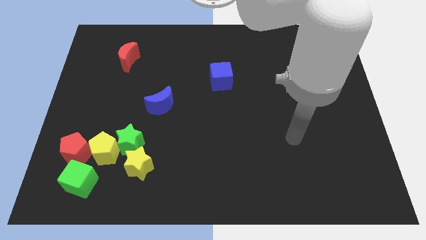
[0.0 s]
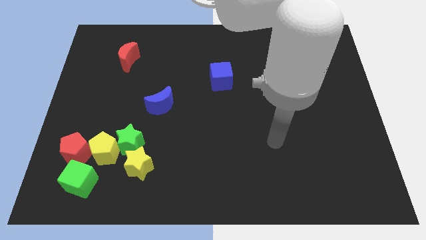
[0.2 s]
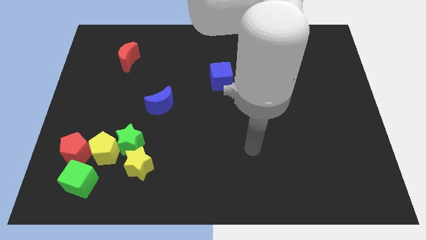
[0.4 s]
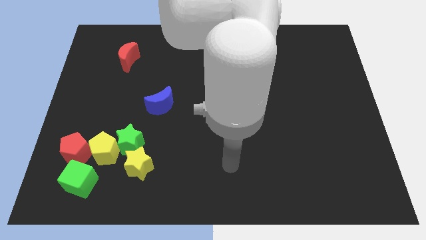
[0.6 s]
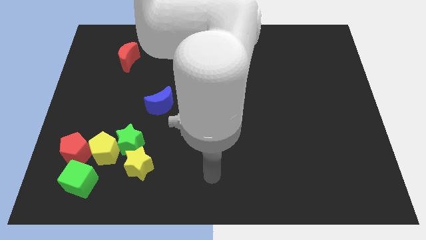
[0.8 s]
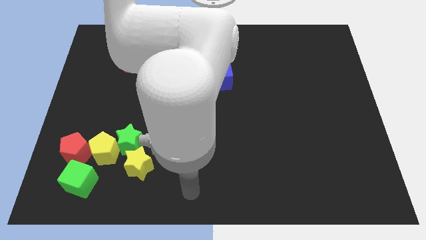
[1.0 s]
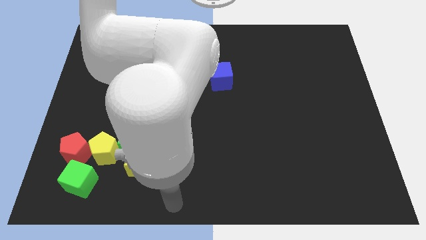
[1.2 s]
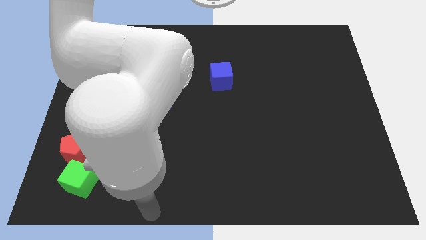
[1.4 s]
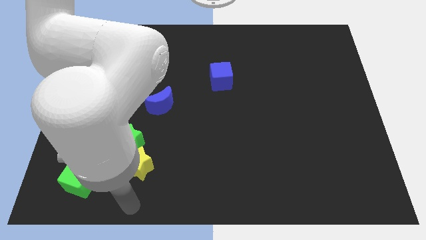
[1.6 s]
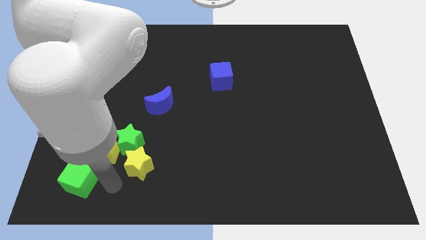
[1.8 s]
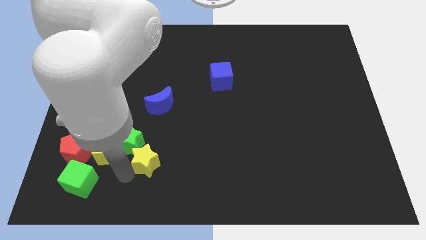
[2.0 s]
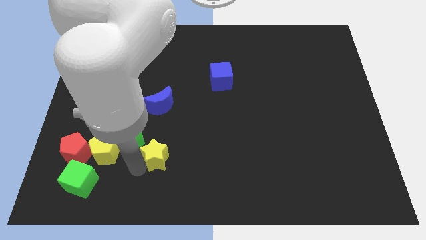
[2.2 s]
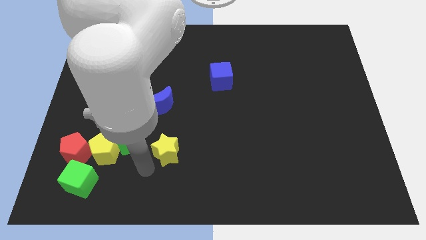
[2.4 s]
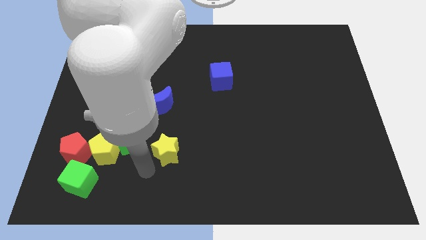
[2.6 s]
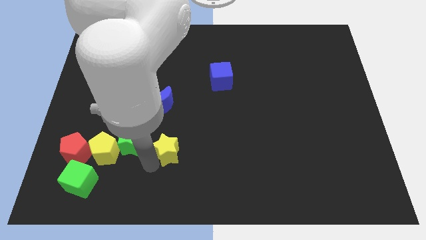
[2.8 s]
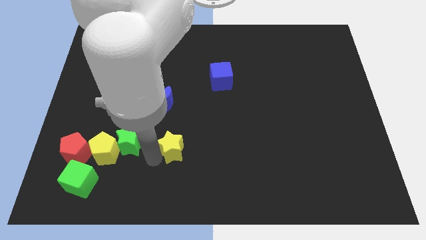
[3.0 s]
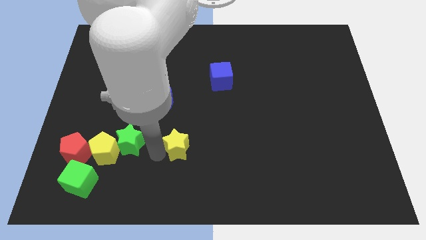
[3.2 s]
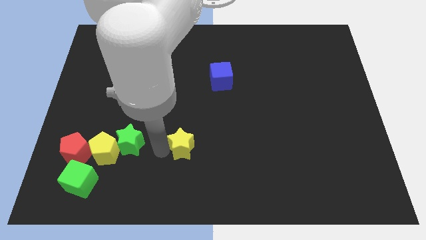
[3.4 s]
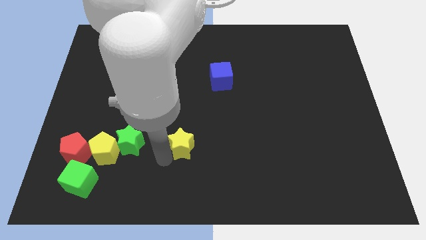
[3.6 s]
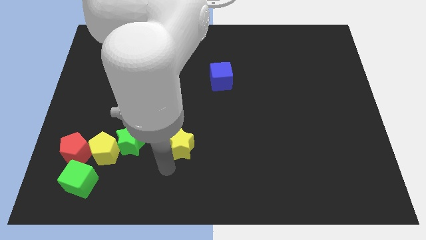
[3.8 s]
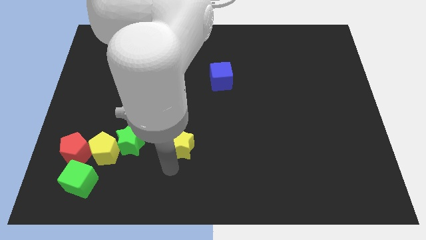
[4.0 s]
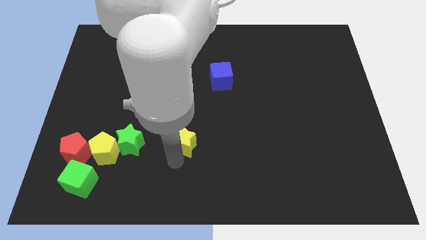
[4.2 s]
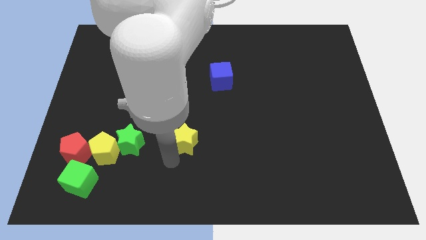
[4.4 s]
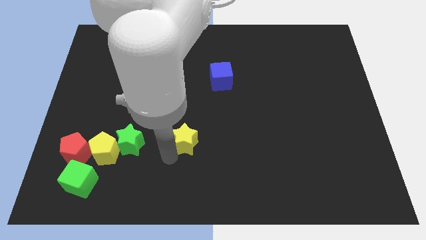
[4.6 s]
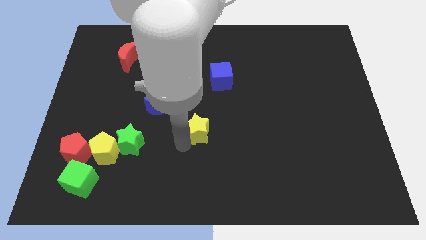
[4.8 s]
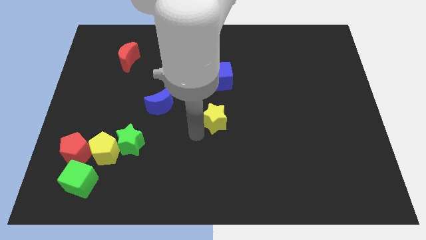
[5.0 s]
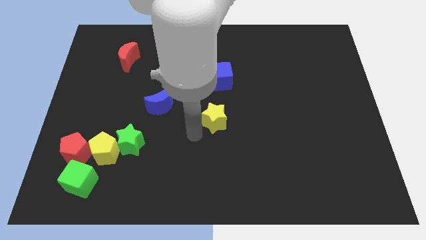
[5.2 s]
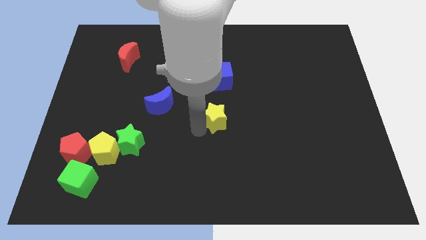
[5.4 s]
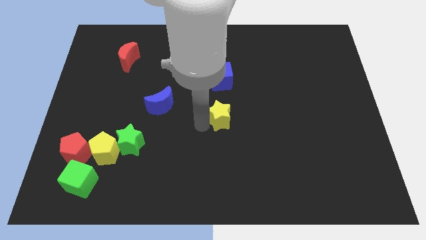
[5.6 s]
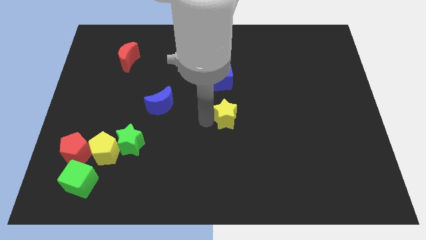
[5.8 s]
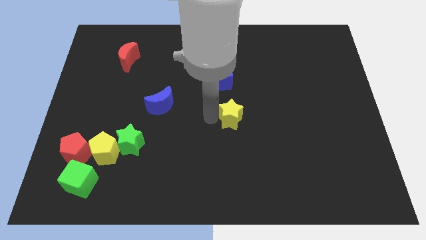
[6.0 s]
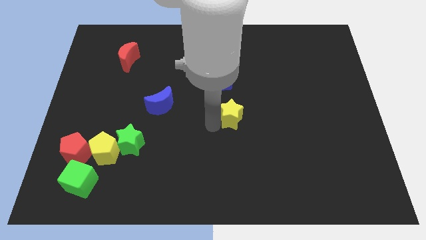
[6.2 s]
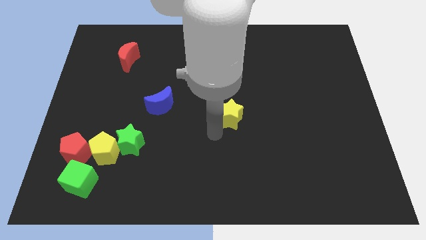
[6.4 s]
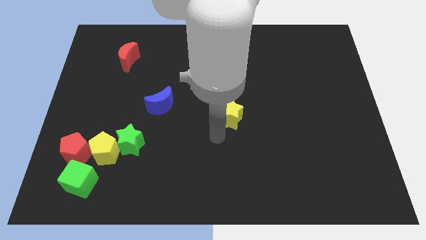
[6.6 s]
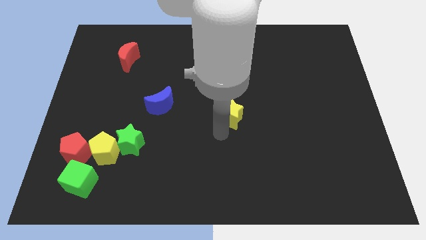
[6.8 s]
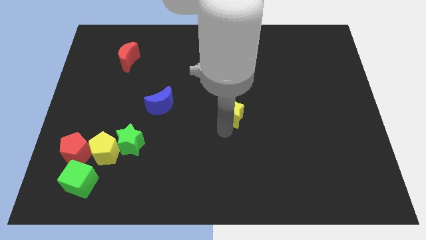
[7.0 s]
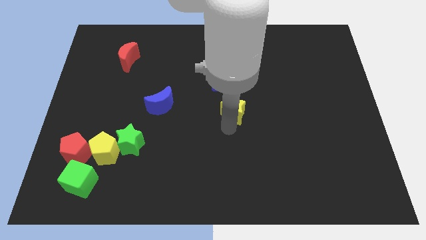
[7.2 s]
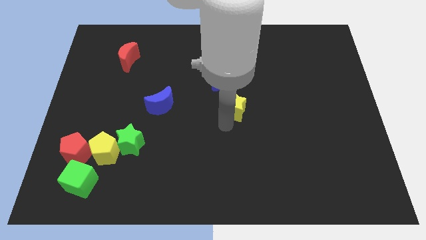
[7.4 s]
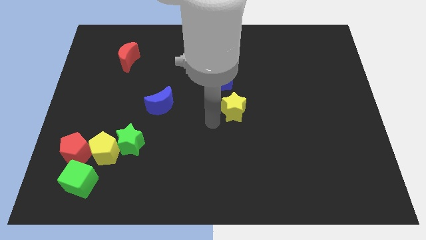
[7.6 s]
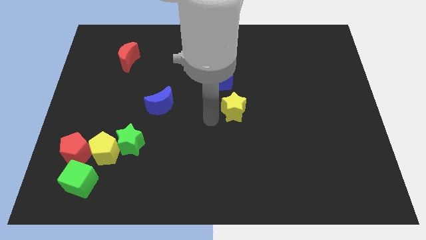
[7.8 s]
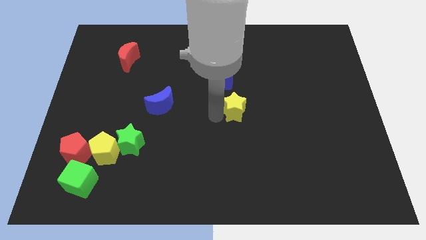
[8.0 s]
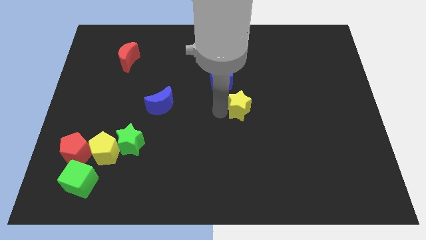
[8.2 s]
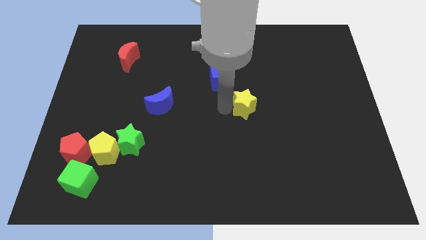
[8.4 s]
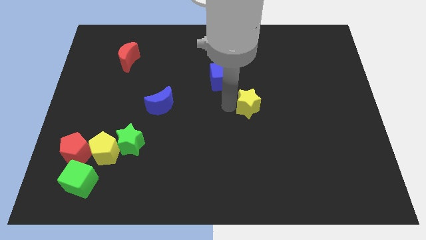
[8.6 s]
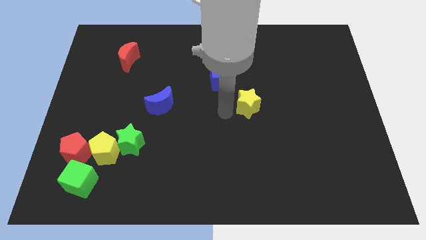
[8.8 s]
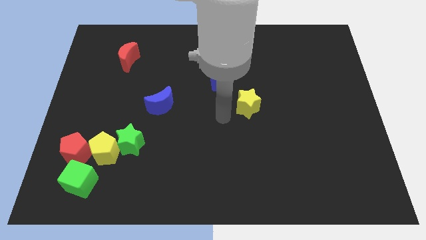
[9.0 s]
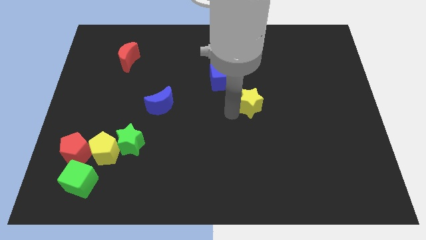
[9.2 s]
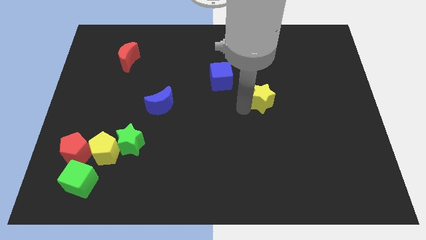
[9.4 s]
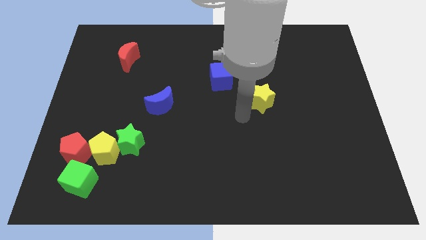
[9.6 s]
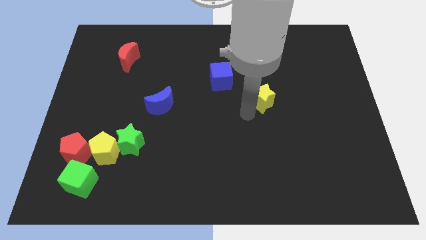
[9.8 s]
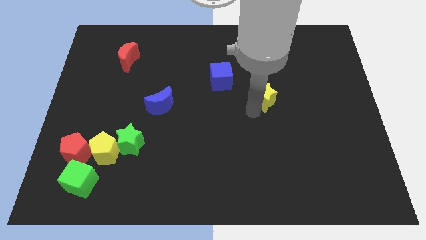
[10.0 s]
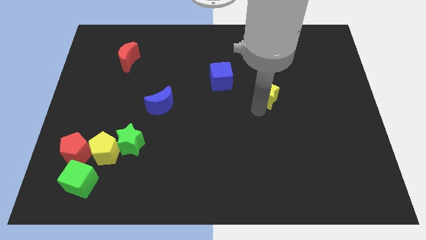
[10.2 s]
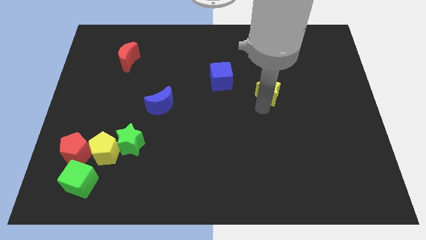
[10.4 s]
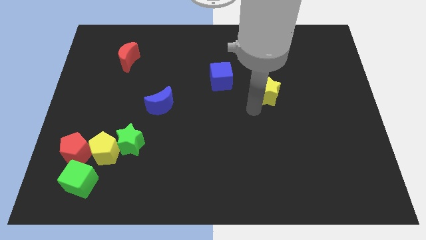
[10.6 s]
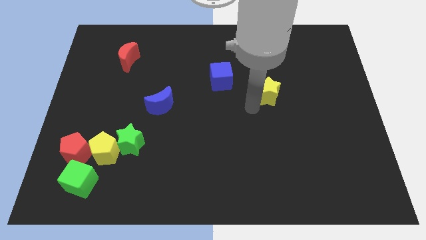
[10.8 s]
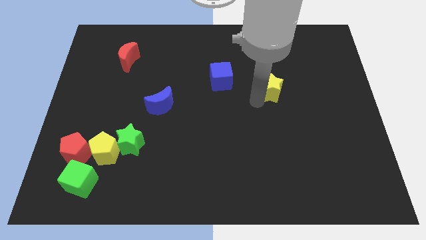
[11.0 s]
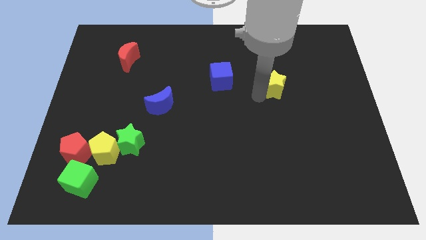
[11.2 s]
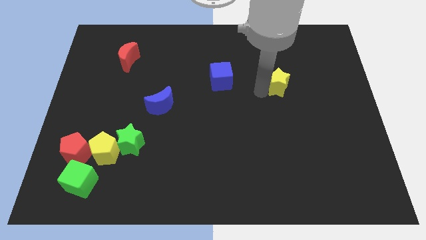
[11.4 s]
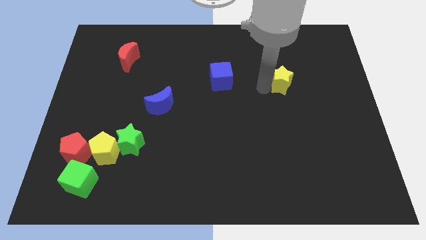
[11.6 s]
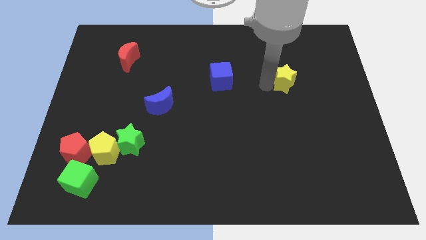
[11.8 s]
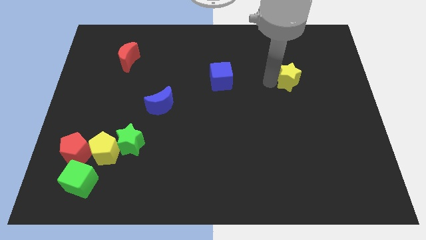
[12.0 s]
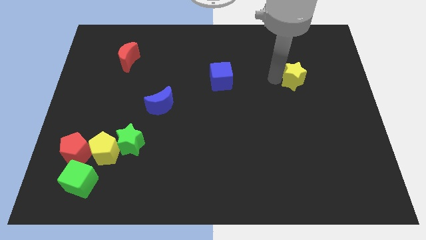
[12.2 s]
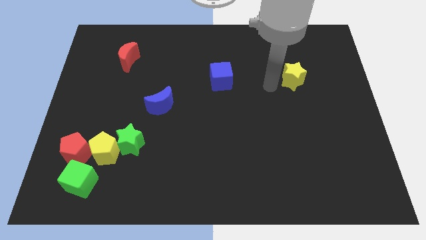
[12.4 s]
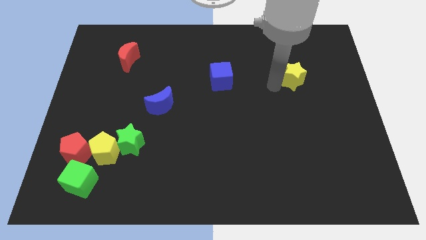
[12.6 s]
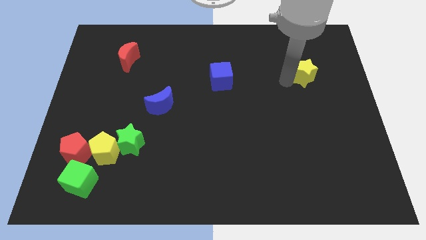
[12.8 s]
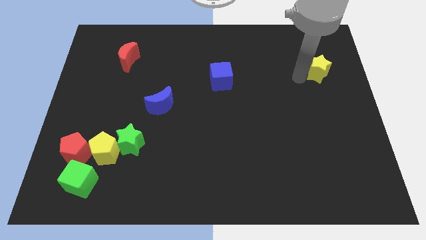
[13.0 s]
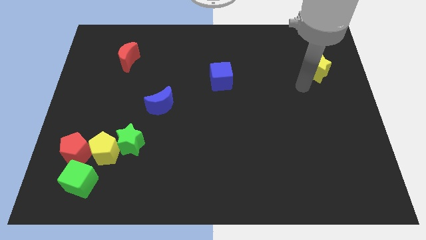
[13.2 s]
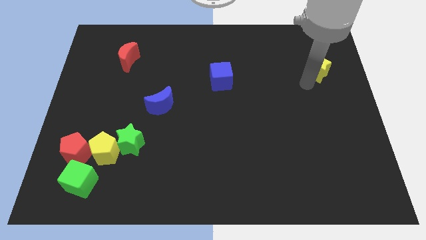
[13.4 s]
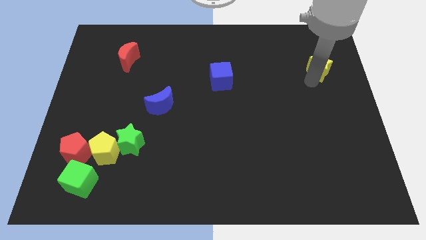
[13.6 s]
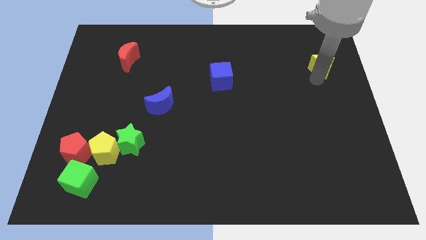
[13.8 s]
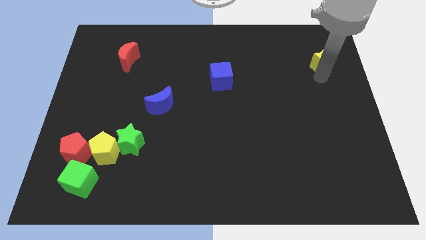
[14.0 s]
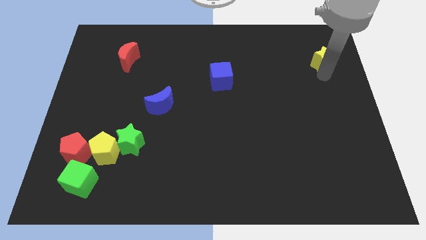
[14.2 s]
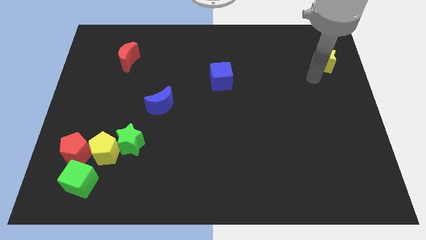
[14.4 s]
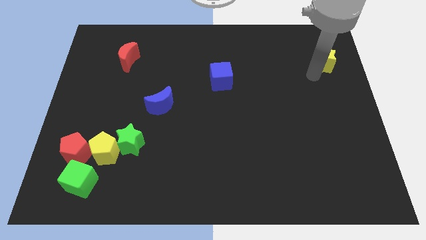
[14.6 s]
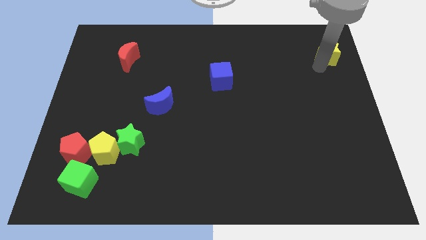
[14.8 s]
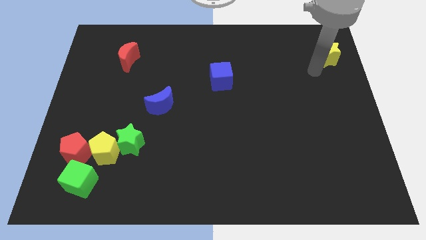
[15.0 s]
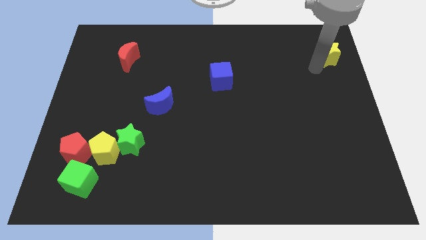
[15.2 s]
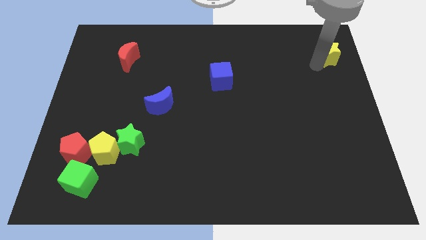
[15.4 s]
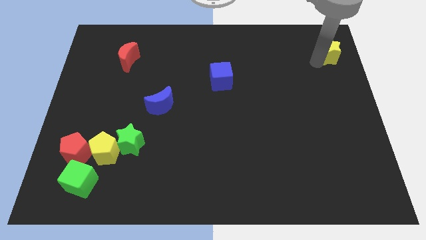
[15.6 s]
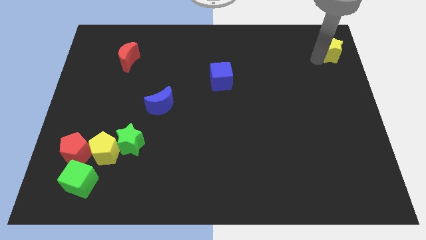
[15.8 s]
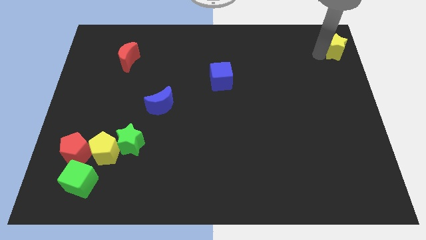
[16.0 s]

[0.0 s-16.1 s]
push the yellow star to the upper right corner
